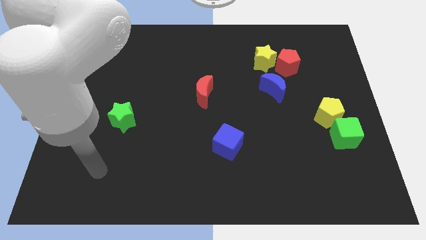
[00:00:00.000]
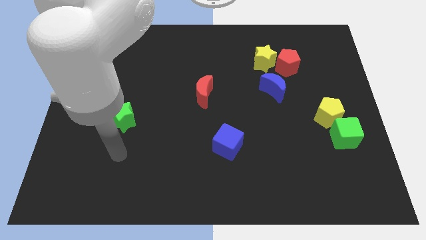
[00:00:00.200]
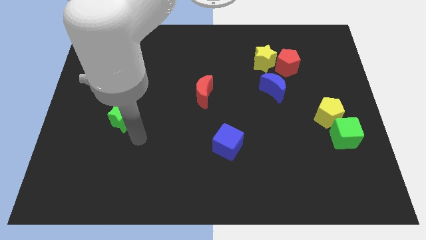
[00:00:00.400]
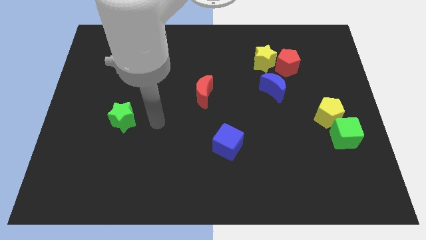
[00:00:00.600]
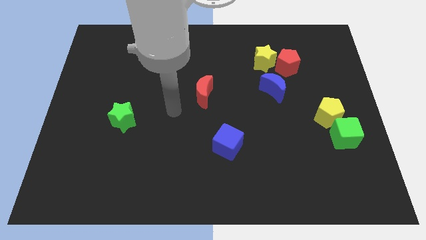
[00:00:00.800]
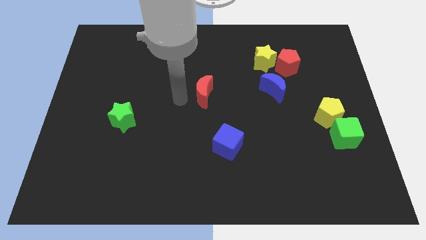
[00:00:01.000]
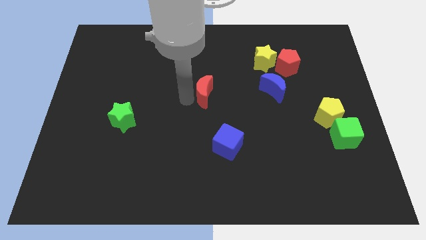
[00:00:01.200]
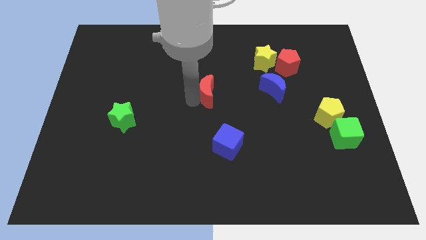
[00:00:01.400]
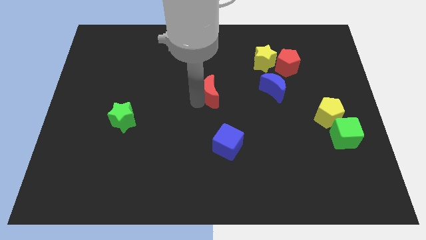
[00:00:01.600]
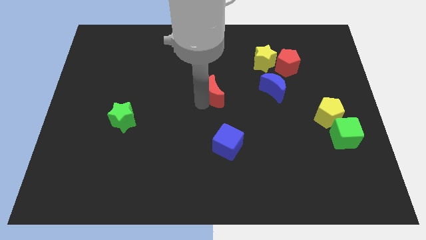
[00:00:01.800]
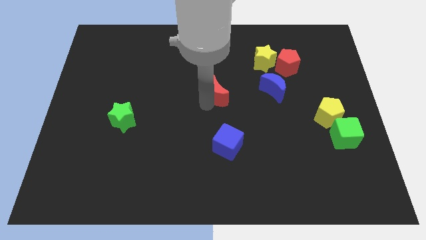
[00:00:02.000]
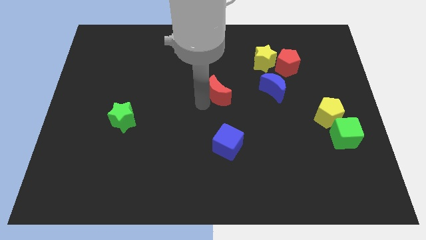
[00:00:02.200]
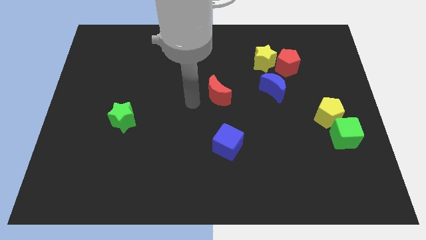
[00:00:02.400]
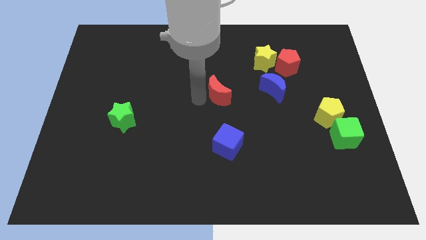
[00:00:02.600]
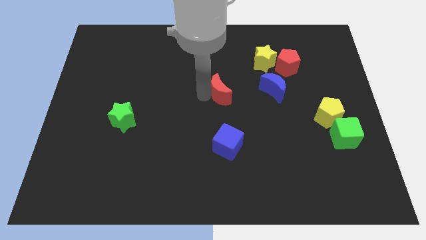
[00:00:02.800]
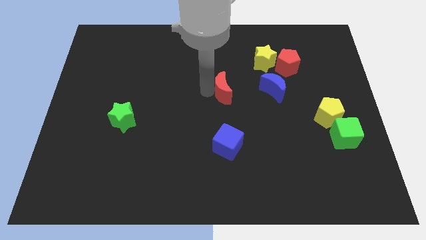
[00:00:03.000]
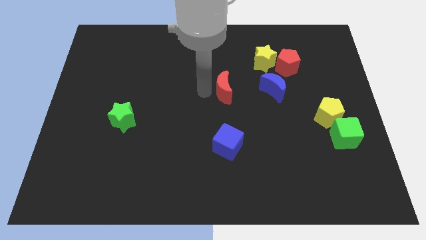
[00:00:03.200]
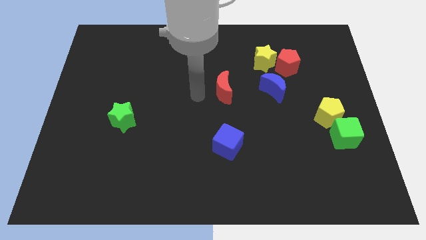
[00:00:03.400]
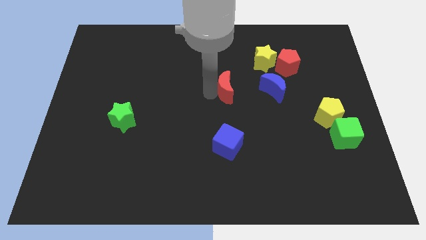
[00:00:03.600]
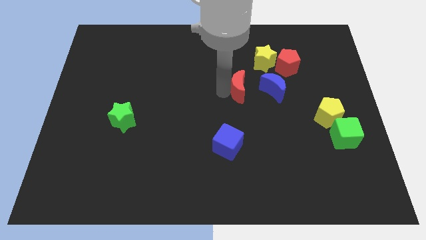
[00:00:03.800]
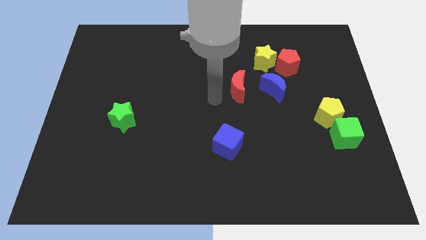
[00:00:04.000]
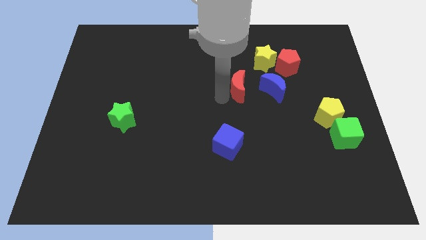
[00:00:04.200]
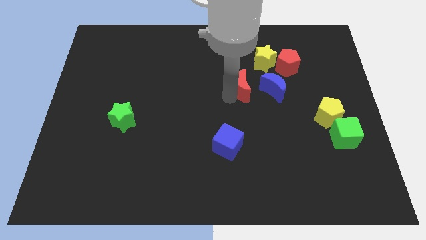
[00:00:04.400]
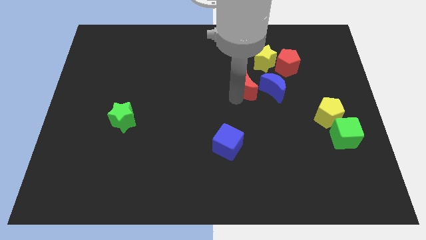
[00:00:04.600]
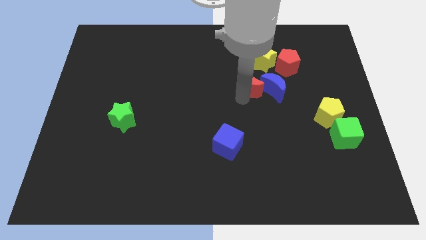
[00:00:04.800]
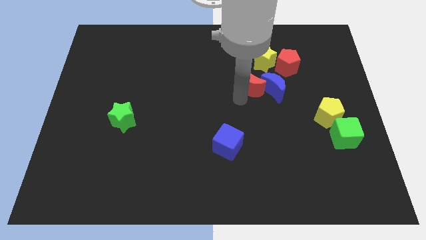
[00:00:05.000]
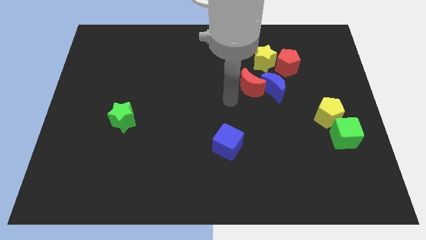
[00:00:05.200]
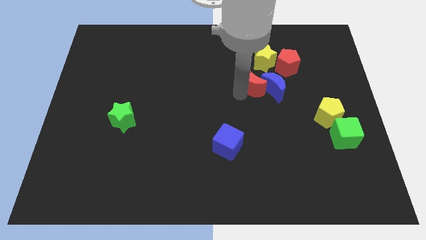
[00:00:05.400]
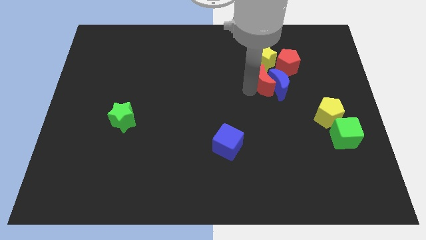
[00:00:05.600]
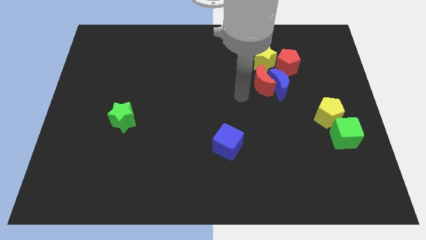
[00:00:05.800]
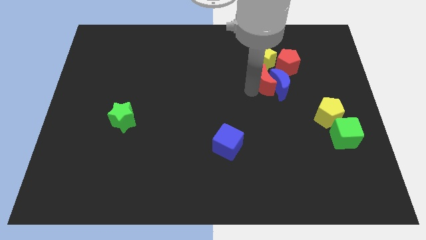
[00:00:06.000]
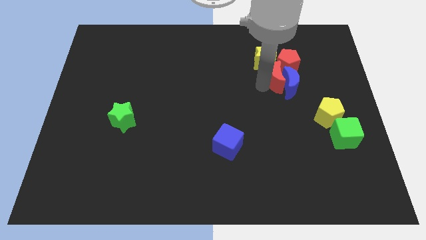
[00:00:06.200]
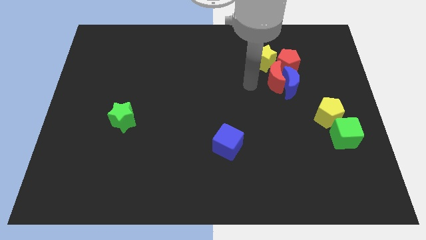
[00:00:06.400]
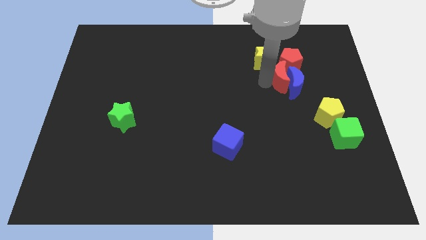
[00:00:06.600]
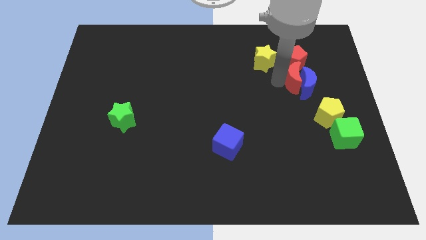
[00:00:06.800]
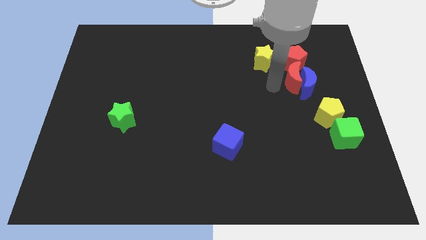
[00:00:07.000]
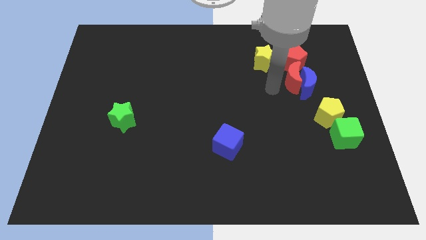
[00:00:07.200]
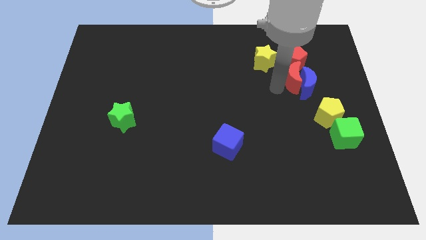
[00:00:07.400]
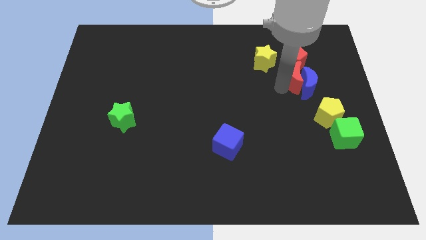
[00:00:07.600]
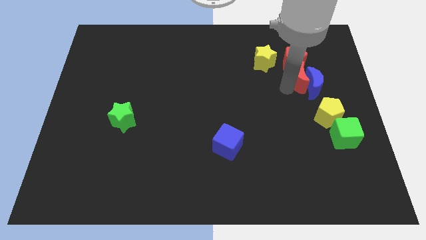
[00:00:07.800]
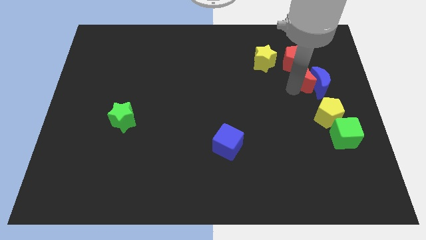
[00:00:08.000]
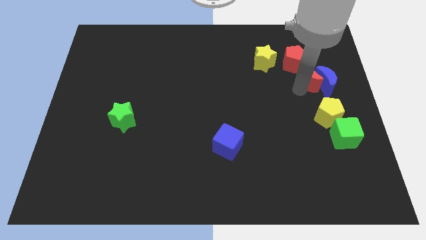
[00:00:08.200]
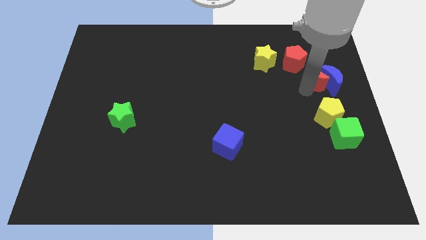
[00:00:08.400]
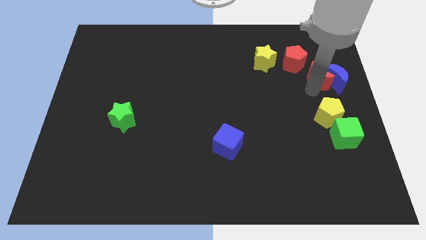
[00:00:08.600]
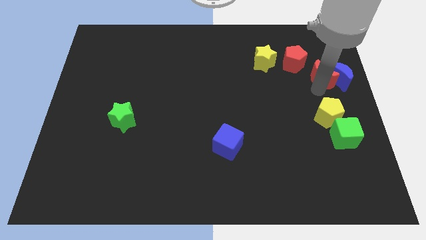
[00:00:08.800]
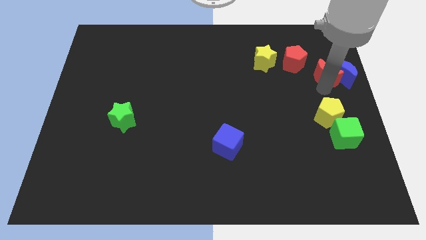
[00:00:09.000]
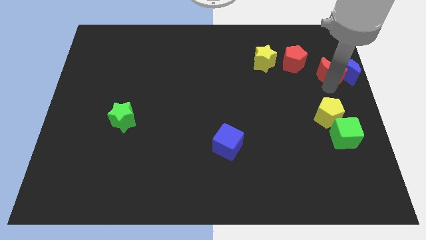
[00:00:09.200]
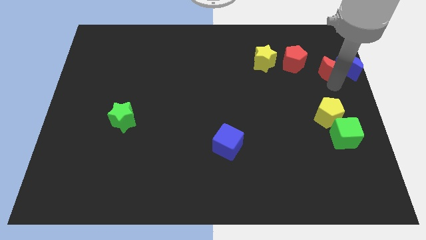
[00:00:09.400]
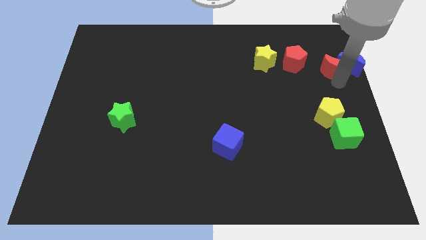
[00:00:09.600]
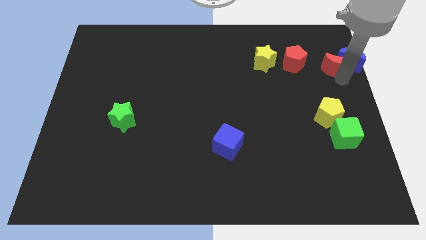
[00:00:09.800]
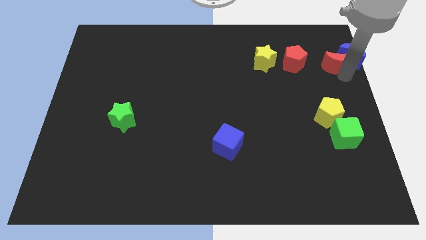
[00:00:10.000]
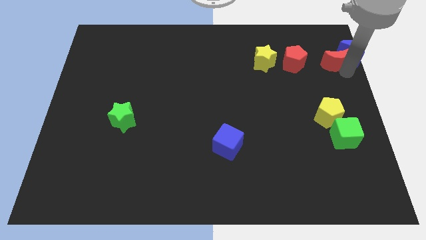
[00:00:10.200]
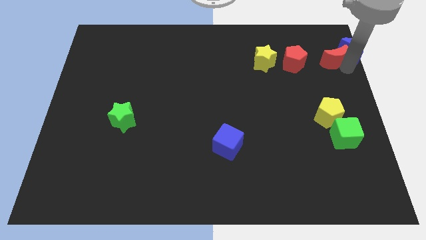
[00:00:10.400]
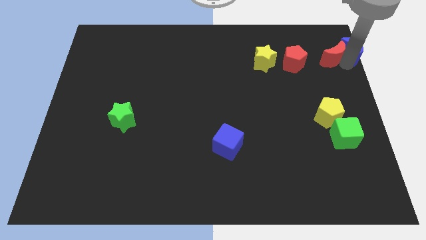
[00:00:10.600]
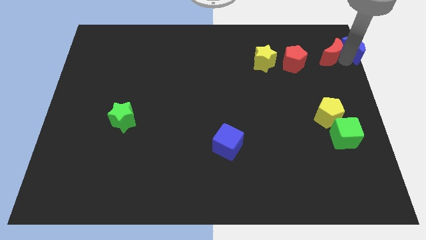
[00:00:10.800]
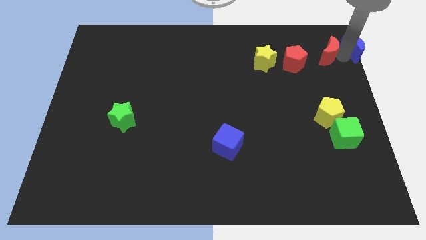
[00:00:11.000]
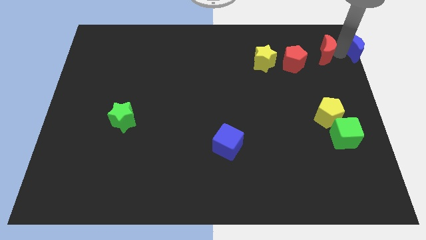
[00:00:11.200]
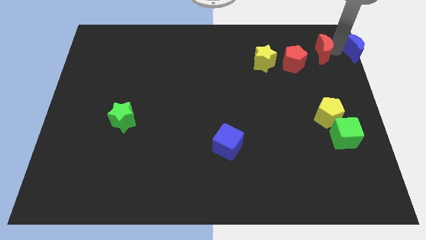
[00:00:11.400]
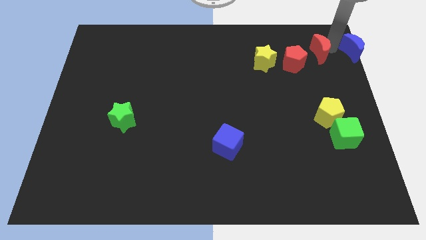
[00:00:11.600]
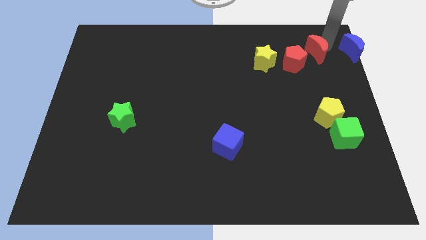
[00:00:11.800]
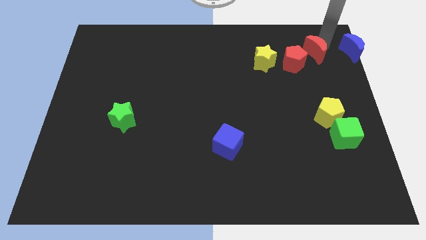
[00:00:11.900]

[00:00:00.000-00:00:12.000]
push the red moon to the right of the yellow star
